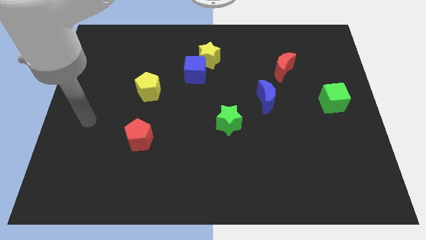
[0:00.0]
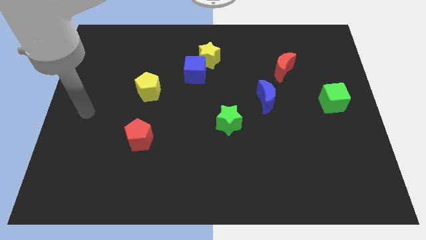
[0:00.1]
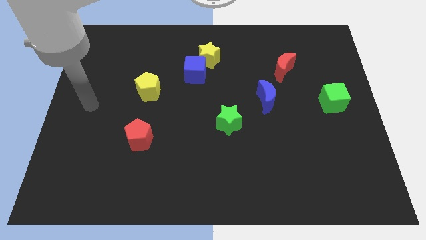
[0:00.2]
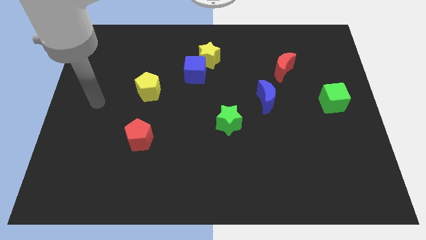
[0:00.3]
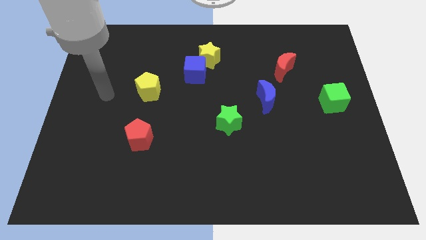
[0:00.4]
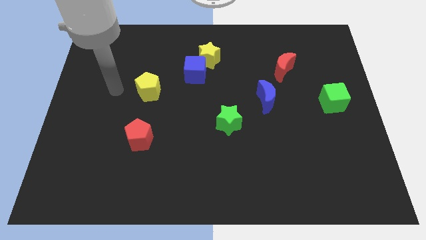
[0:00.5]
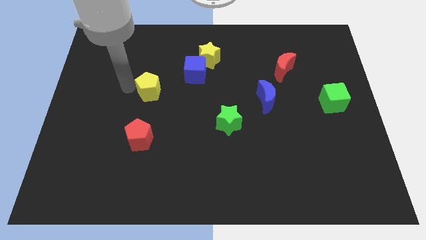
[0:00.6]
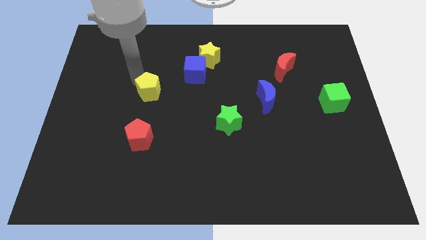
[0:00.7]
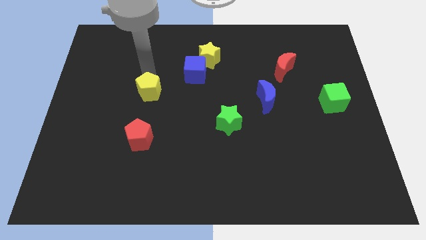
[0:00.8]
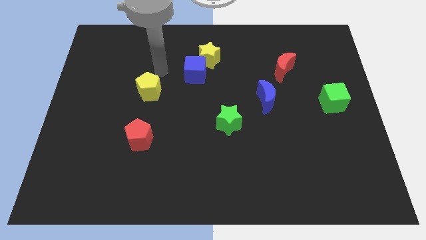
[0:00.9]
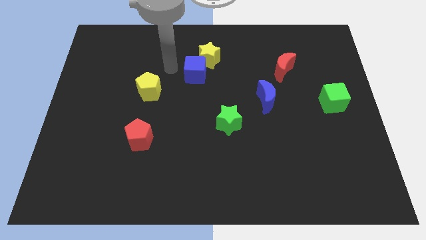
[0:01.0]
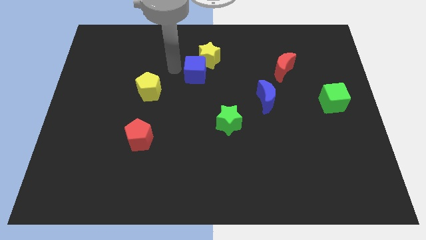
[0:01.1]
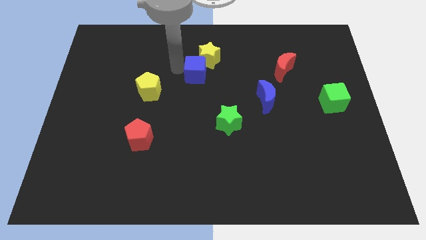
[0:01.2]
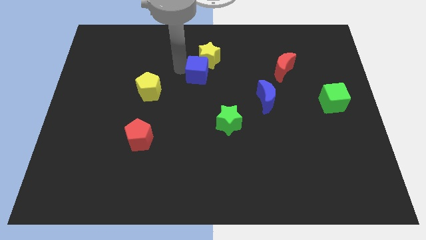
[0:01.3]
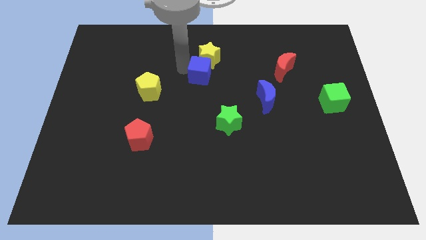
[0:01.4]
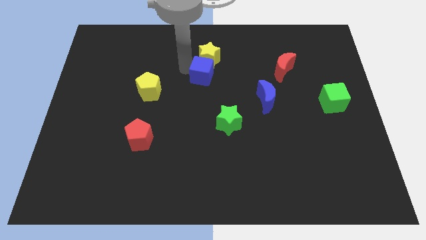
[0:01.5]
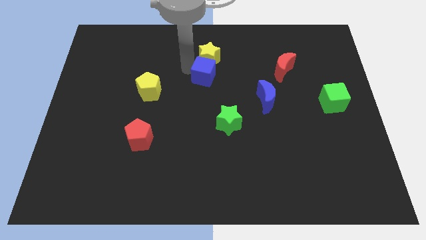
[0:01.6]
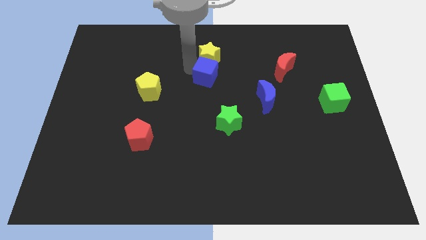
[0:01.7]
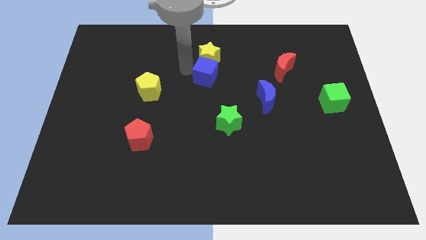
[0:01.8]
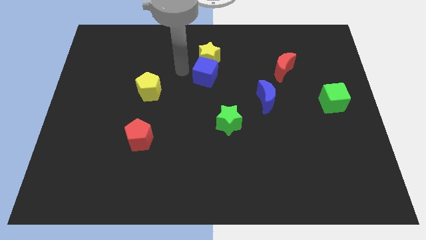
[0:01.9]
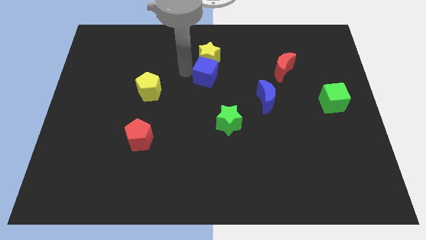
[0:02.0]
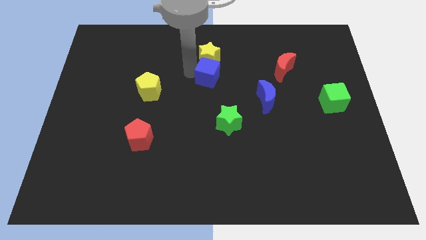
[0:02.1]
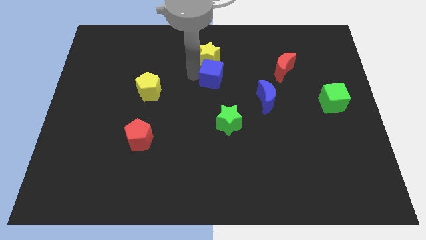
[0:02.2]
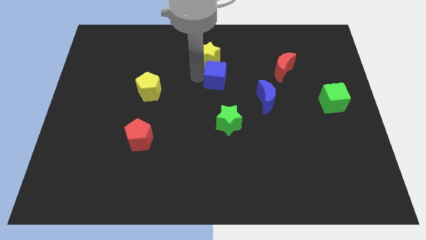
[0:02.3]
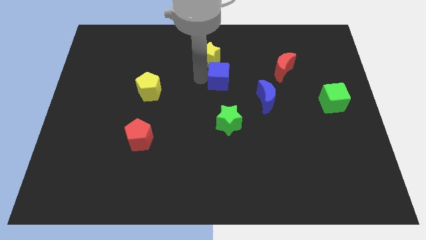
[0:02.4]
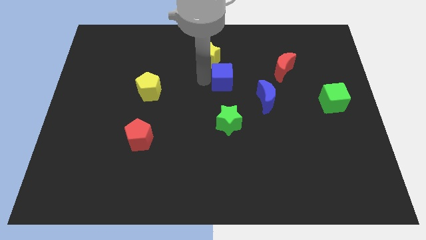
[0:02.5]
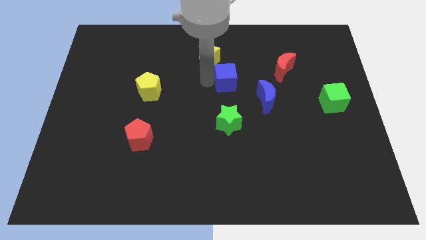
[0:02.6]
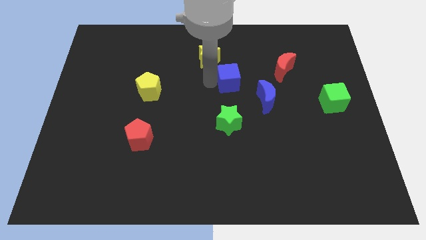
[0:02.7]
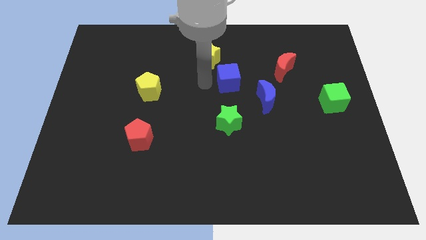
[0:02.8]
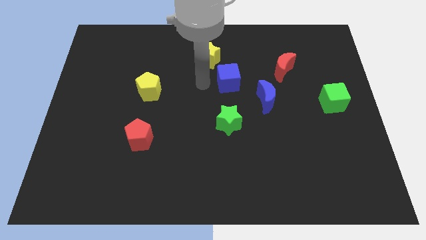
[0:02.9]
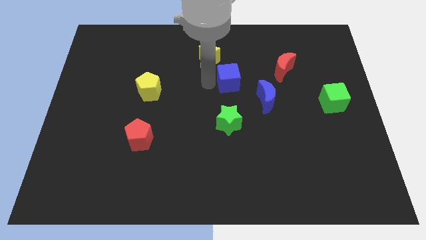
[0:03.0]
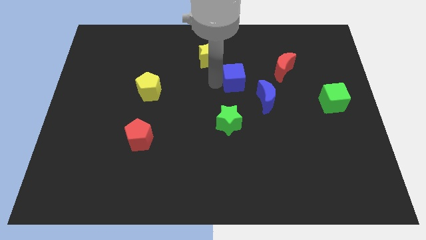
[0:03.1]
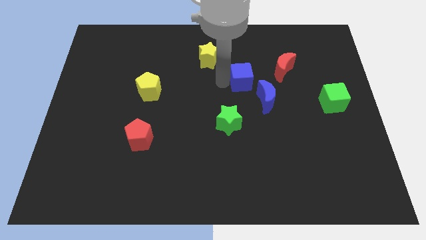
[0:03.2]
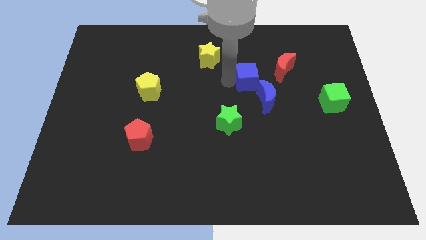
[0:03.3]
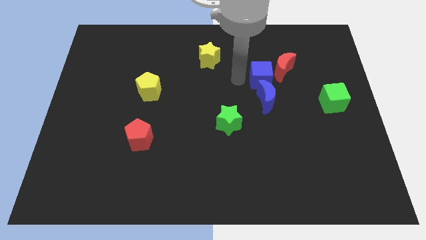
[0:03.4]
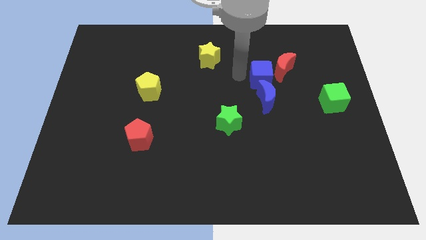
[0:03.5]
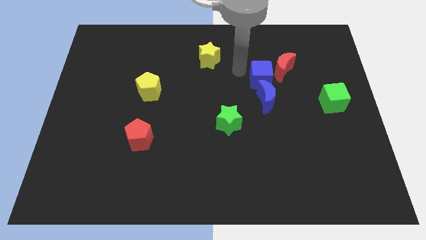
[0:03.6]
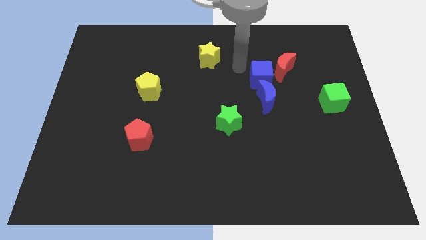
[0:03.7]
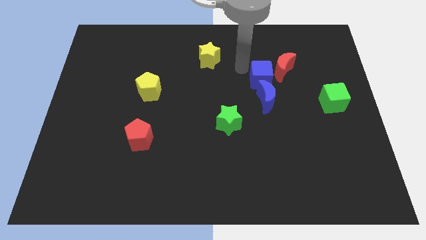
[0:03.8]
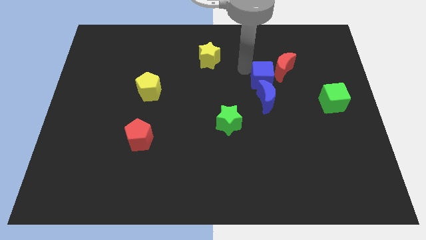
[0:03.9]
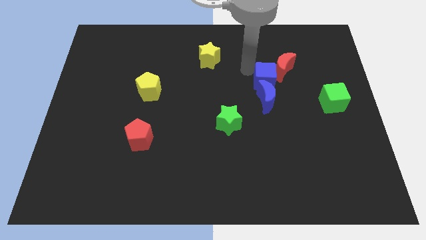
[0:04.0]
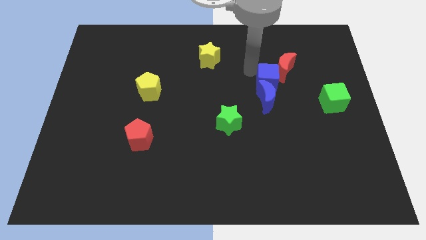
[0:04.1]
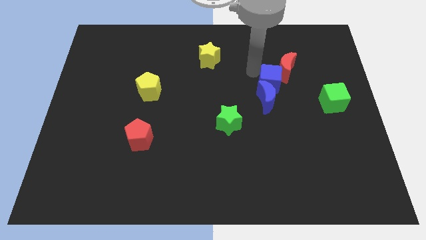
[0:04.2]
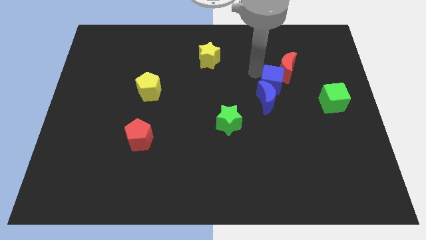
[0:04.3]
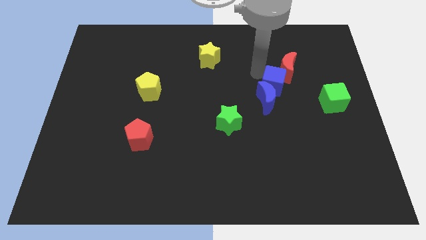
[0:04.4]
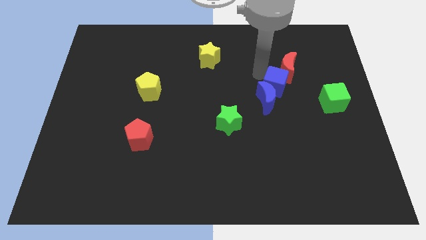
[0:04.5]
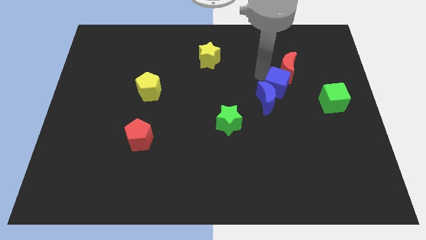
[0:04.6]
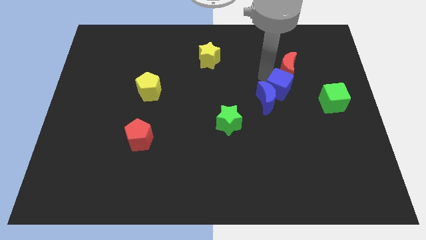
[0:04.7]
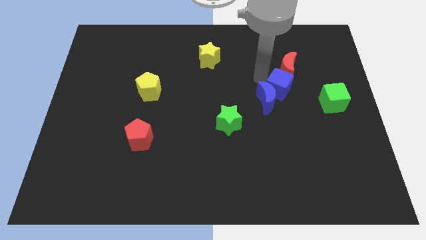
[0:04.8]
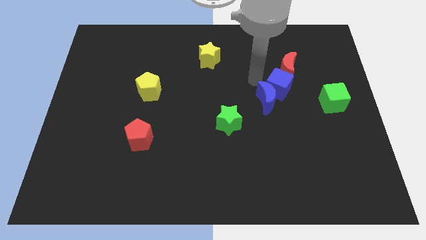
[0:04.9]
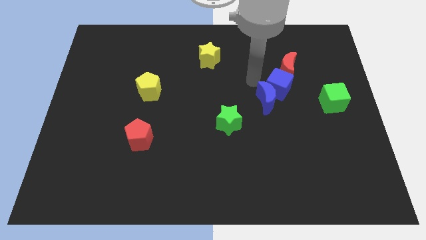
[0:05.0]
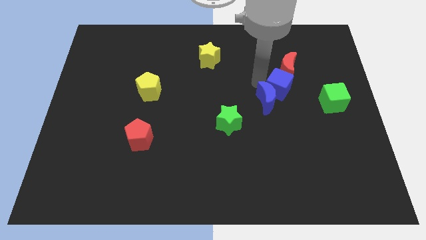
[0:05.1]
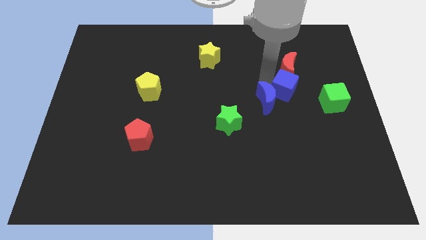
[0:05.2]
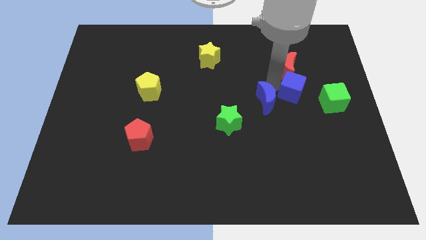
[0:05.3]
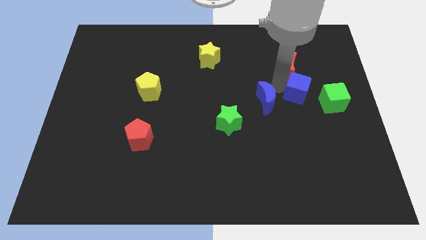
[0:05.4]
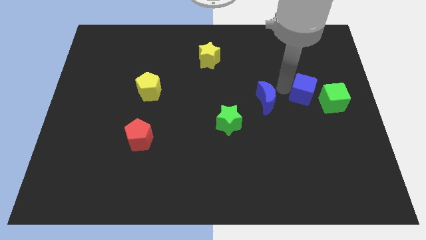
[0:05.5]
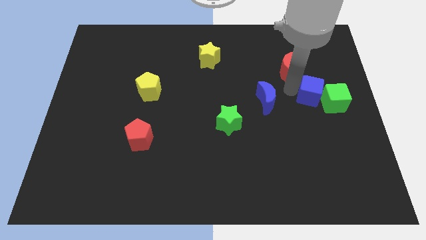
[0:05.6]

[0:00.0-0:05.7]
move the blue cube next to the green cube

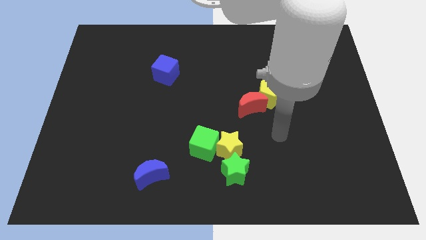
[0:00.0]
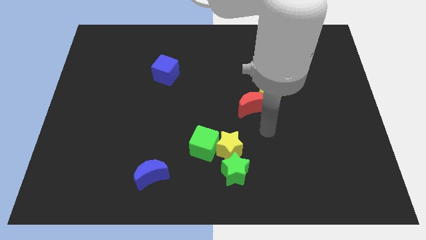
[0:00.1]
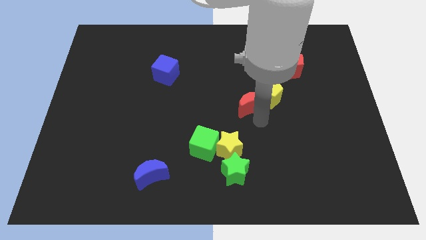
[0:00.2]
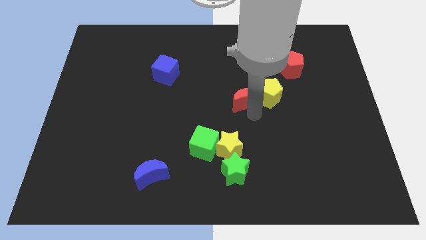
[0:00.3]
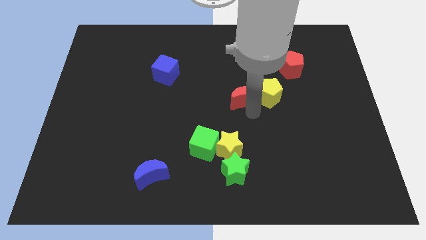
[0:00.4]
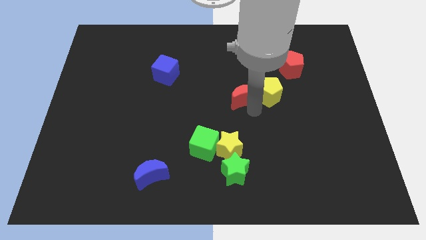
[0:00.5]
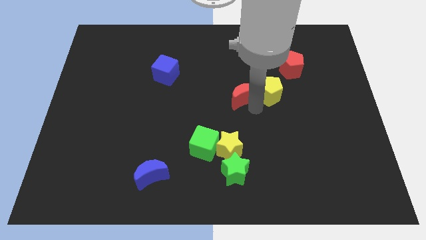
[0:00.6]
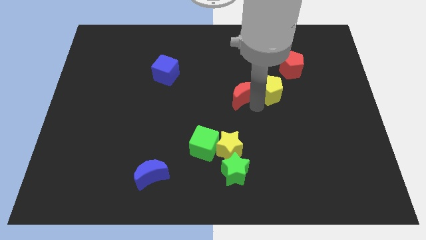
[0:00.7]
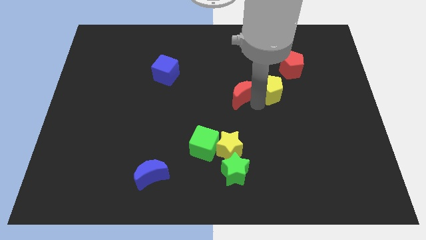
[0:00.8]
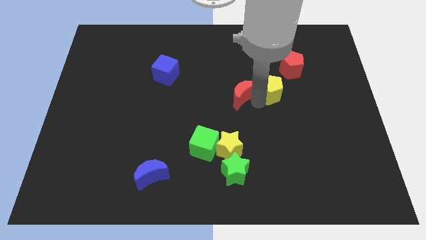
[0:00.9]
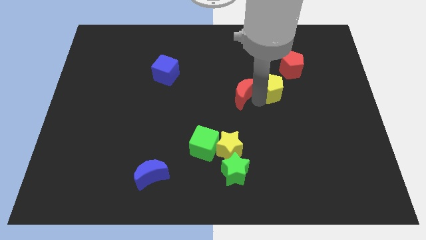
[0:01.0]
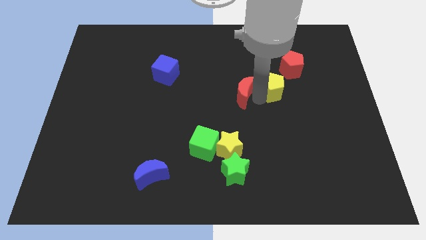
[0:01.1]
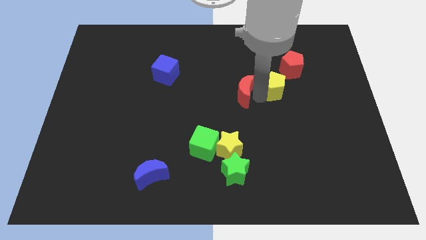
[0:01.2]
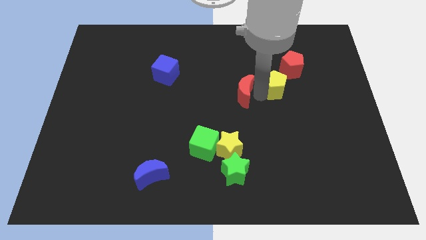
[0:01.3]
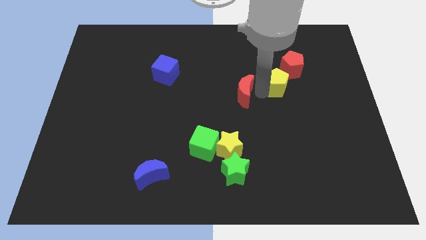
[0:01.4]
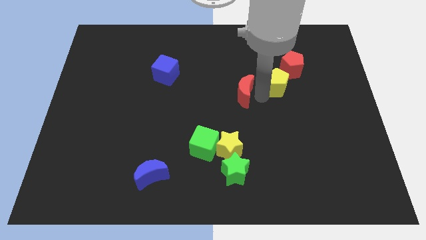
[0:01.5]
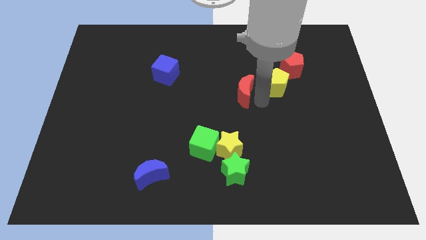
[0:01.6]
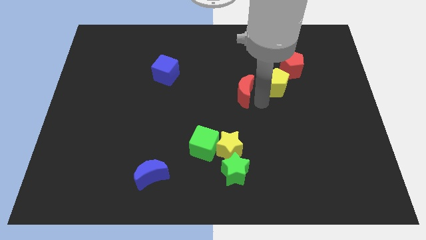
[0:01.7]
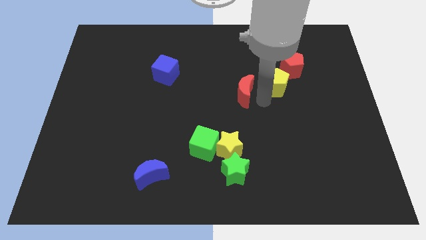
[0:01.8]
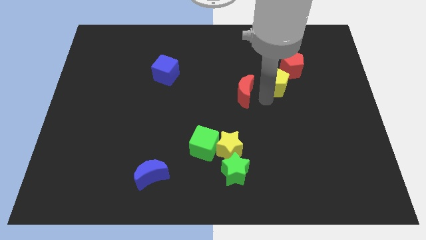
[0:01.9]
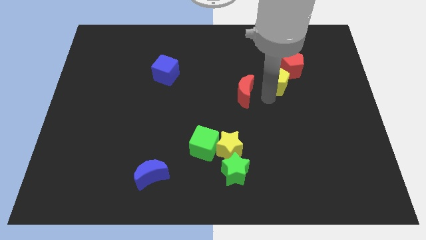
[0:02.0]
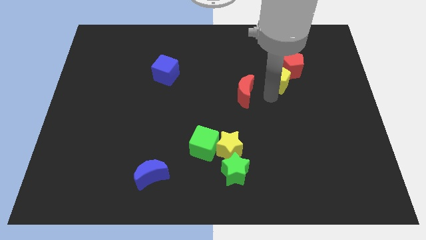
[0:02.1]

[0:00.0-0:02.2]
put the yellow pentagon to the red pentagon

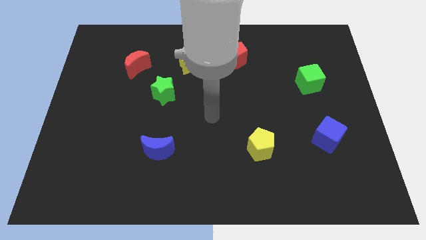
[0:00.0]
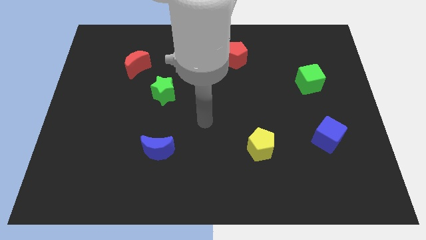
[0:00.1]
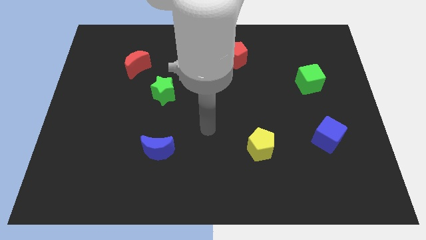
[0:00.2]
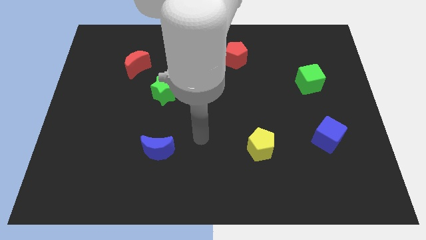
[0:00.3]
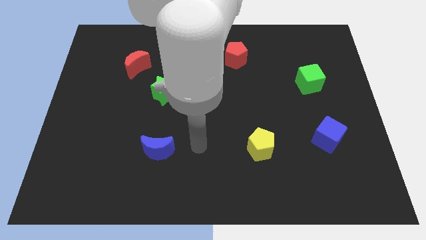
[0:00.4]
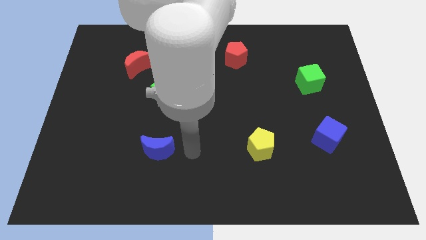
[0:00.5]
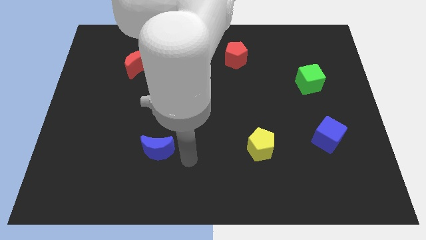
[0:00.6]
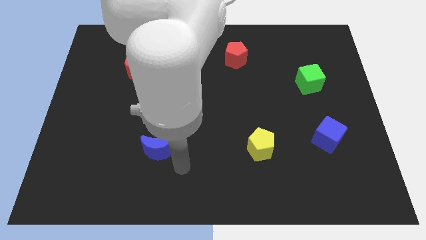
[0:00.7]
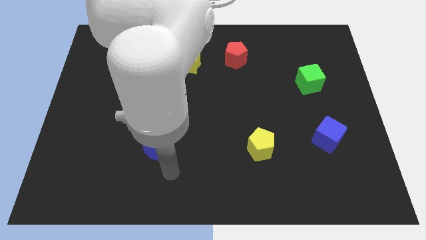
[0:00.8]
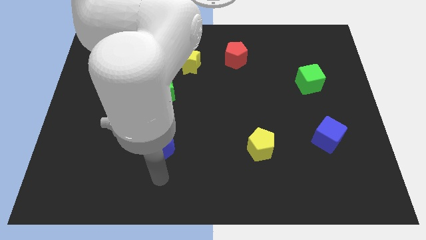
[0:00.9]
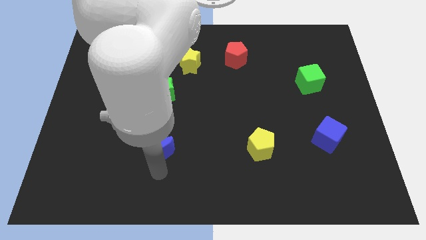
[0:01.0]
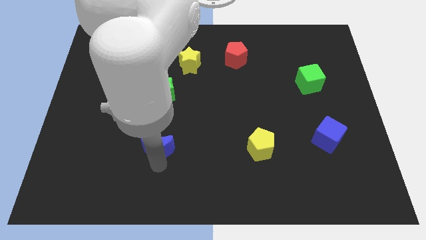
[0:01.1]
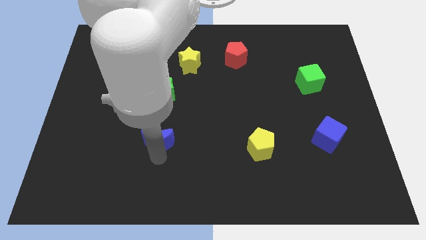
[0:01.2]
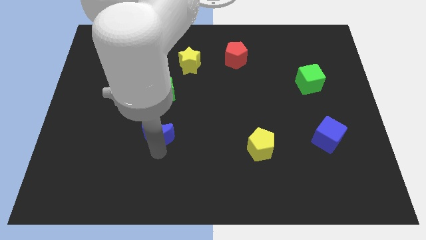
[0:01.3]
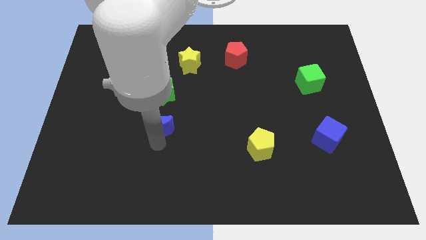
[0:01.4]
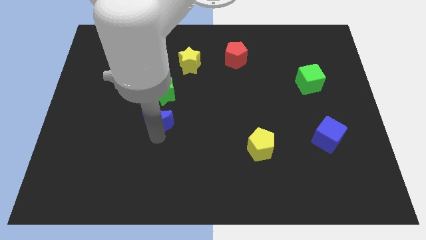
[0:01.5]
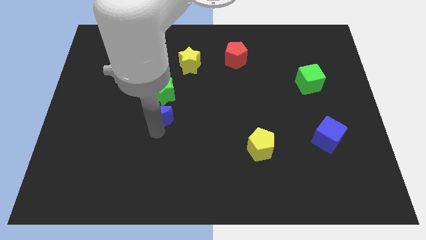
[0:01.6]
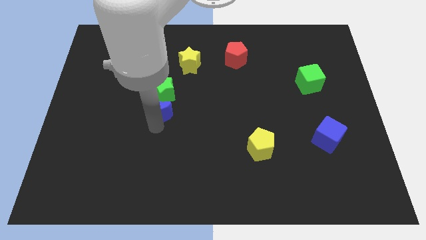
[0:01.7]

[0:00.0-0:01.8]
put the blue moon towards the green star
